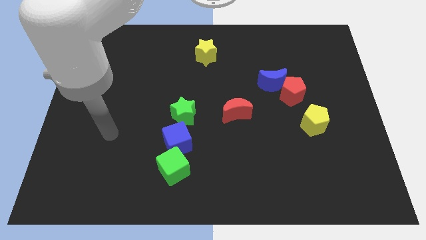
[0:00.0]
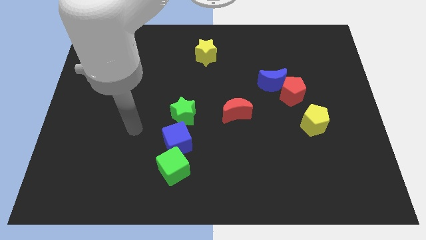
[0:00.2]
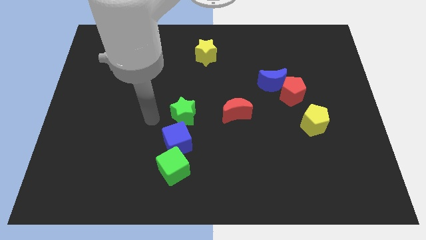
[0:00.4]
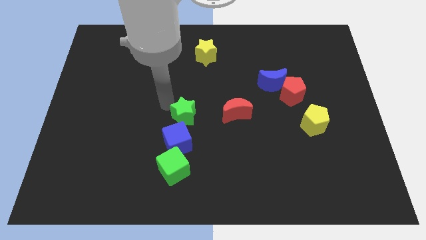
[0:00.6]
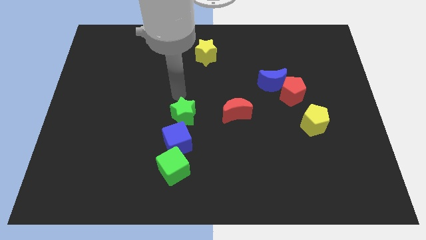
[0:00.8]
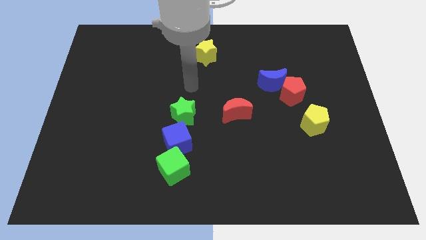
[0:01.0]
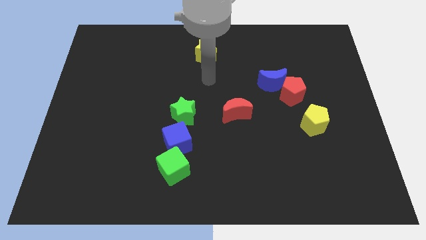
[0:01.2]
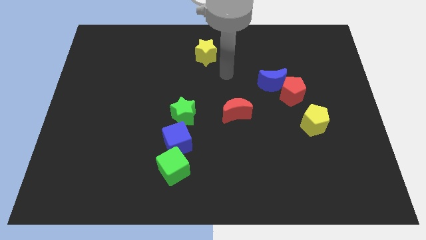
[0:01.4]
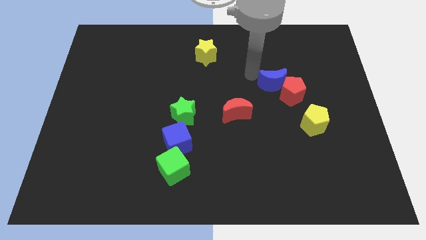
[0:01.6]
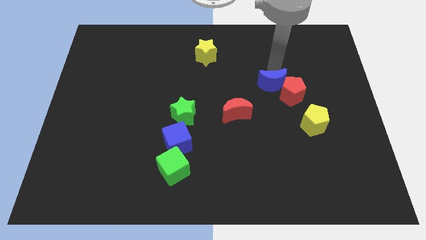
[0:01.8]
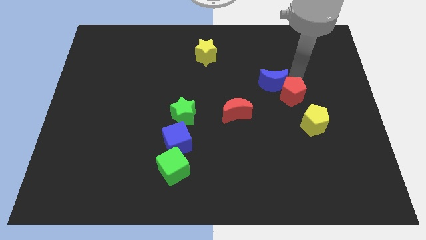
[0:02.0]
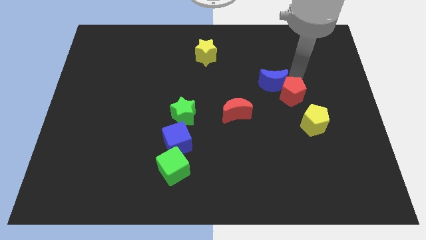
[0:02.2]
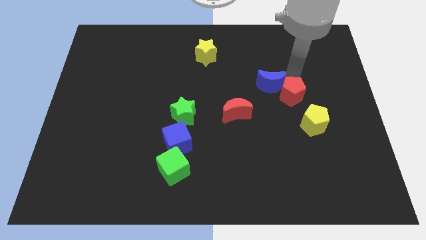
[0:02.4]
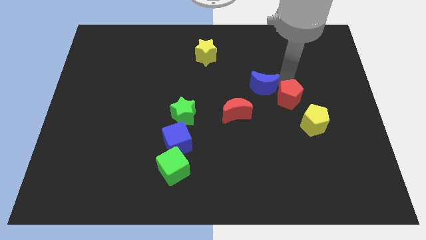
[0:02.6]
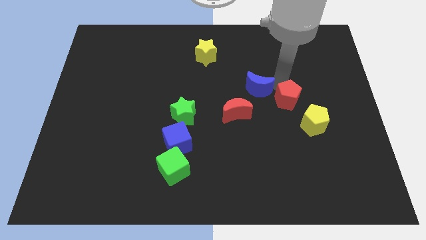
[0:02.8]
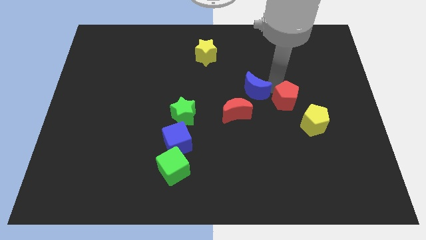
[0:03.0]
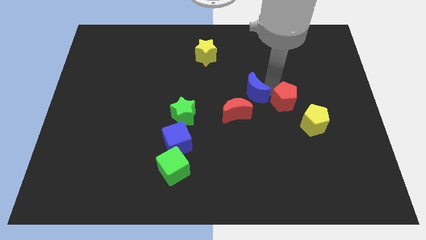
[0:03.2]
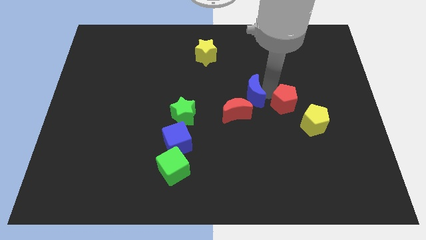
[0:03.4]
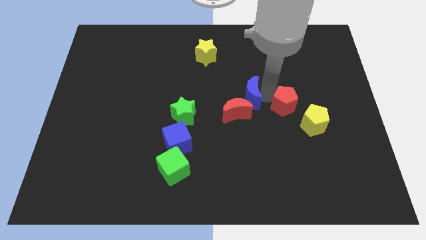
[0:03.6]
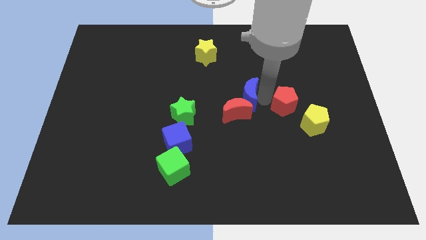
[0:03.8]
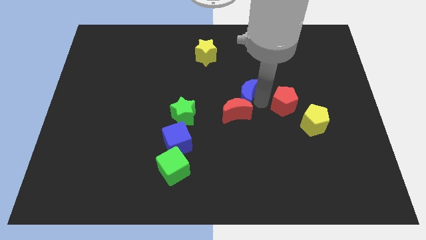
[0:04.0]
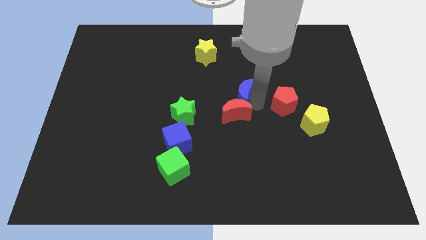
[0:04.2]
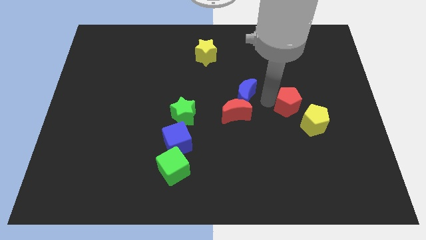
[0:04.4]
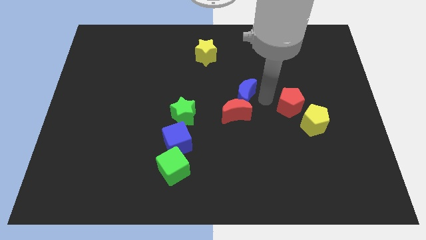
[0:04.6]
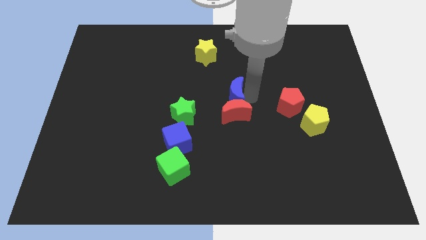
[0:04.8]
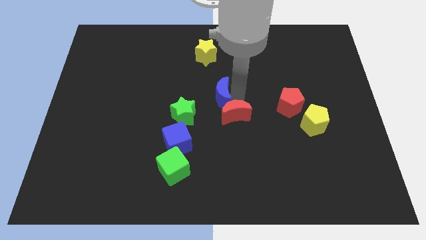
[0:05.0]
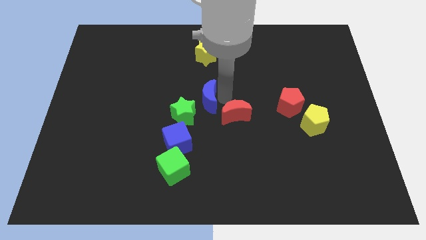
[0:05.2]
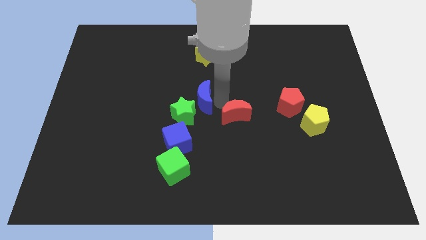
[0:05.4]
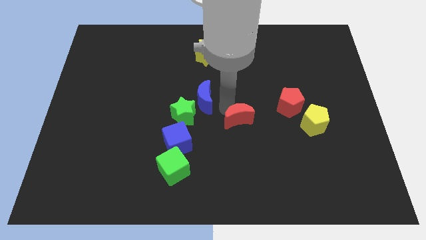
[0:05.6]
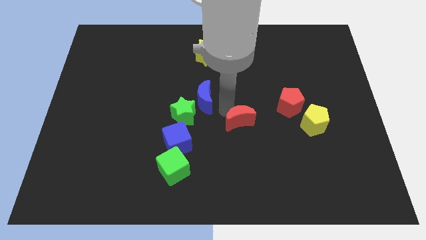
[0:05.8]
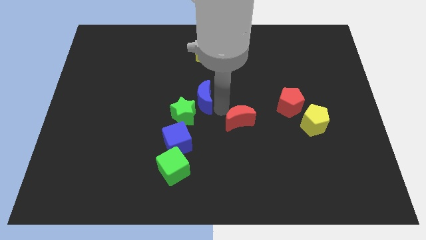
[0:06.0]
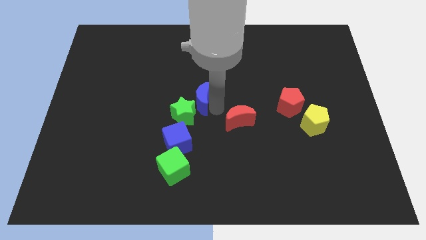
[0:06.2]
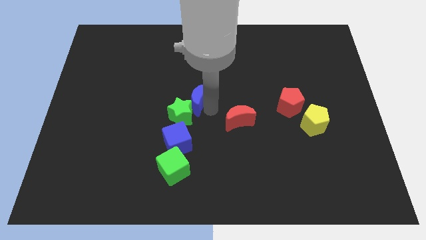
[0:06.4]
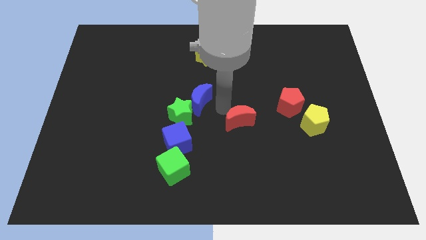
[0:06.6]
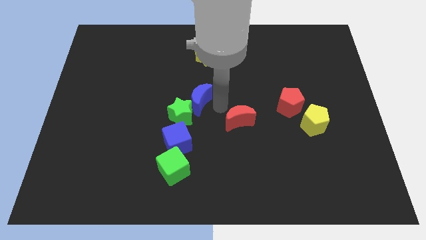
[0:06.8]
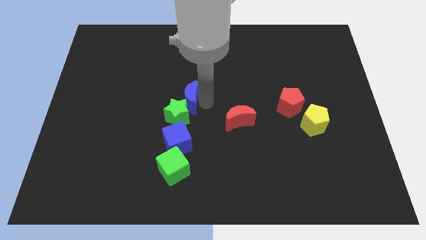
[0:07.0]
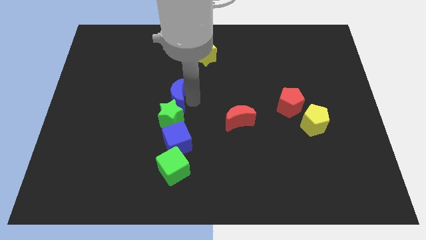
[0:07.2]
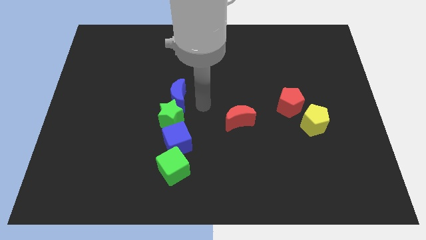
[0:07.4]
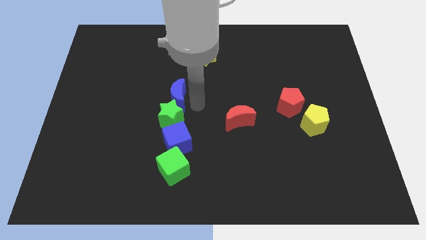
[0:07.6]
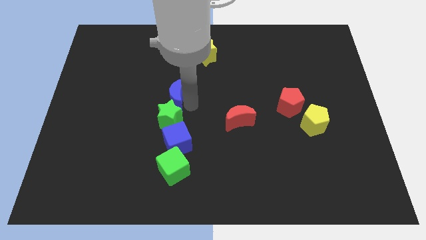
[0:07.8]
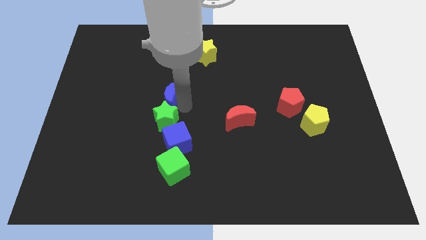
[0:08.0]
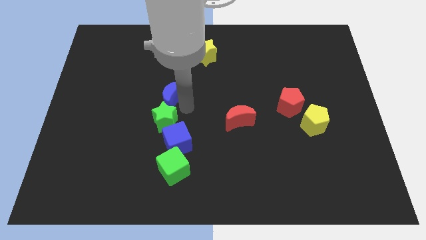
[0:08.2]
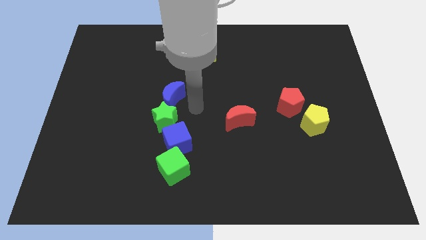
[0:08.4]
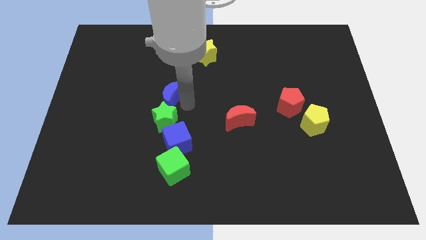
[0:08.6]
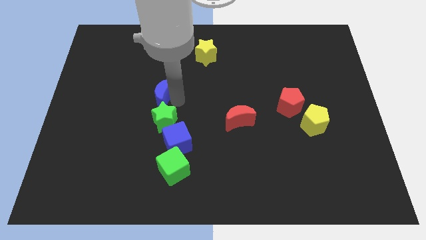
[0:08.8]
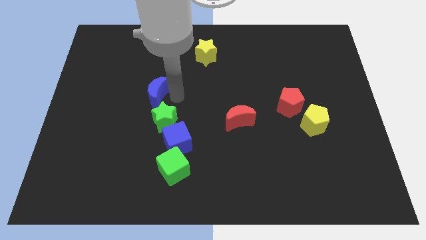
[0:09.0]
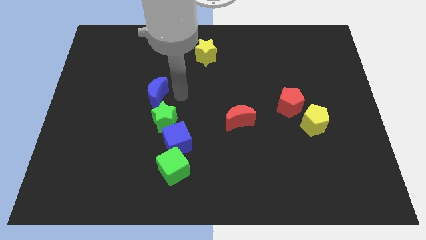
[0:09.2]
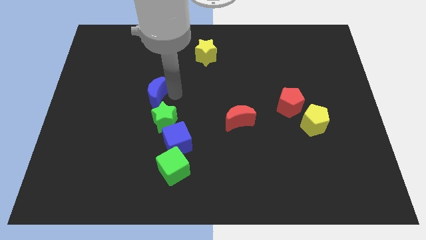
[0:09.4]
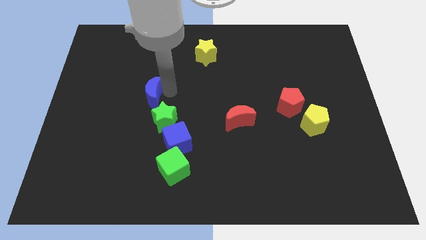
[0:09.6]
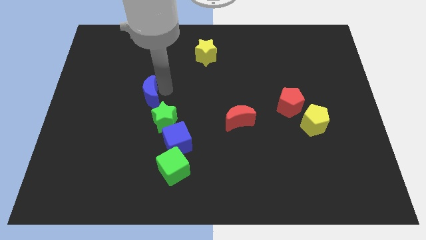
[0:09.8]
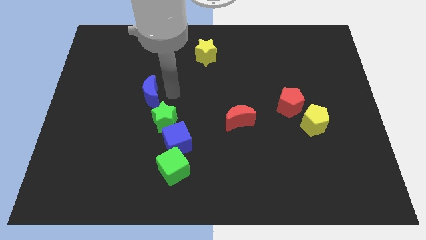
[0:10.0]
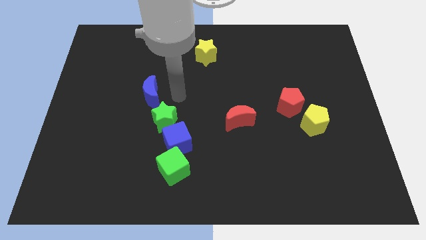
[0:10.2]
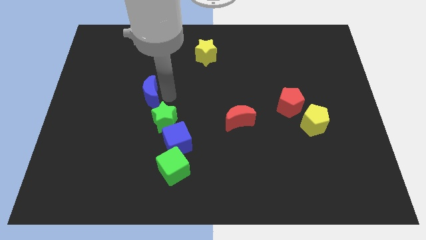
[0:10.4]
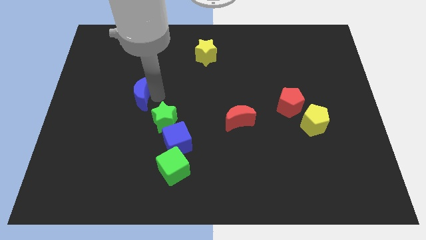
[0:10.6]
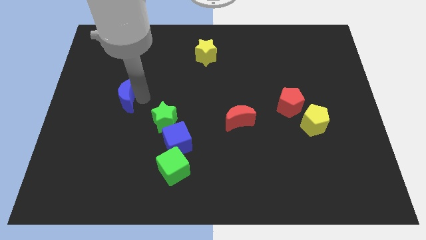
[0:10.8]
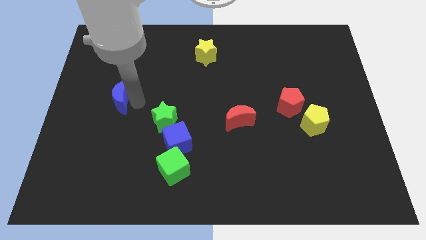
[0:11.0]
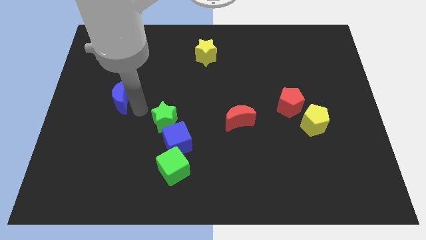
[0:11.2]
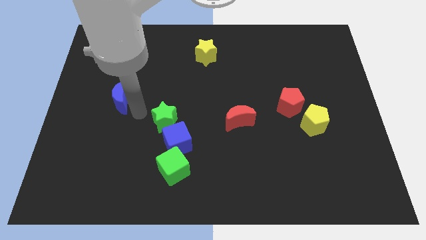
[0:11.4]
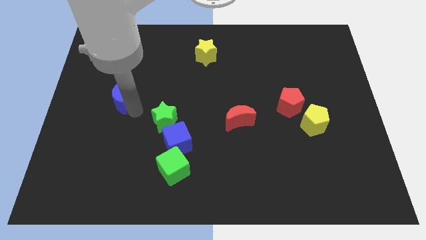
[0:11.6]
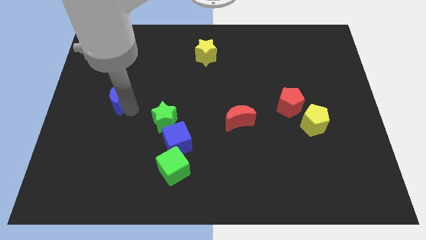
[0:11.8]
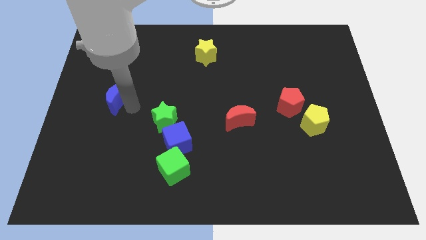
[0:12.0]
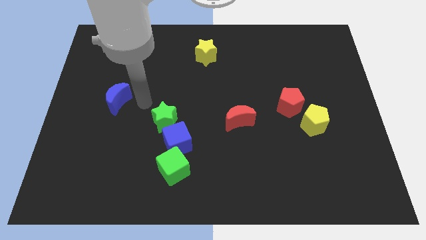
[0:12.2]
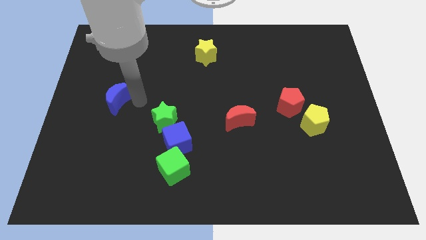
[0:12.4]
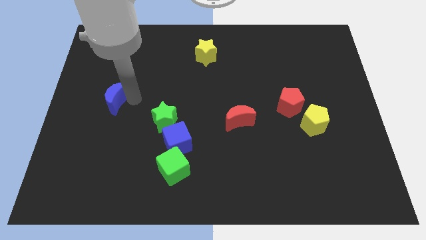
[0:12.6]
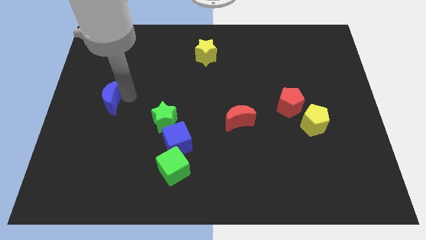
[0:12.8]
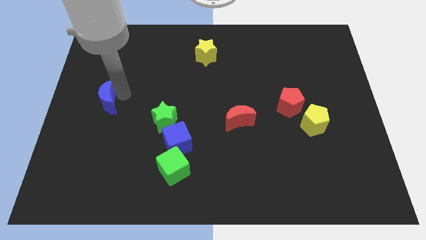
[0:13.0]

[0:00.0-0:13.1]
push the blue moon to the left side of the board
